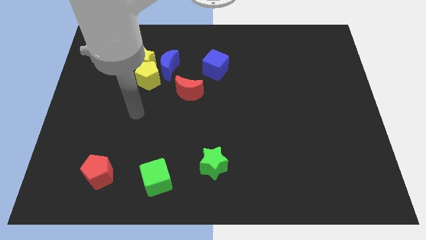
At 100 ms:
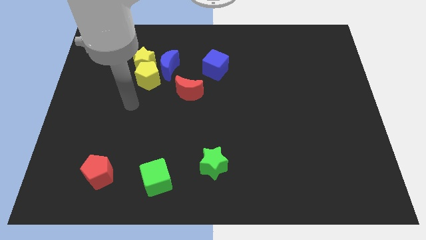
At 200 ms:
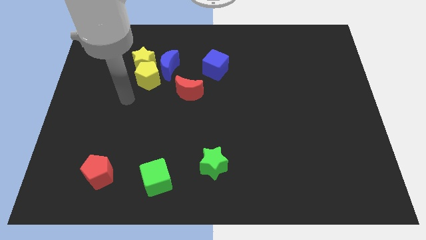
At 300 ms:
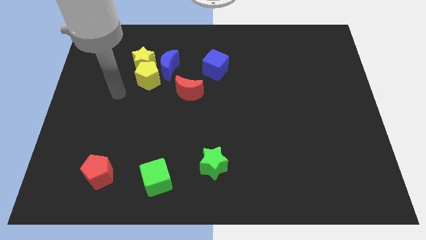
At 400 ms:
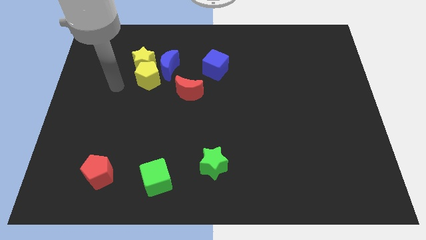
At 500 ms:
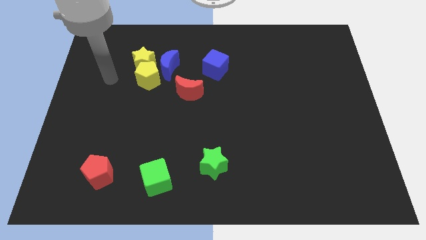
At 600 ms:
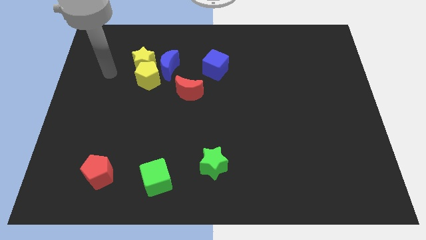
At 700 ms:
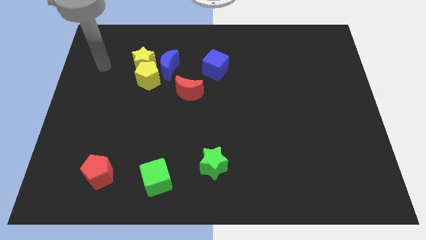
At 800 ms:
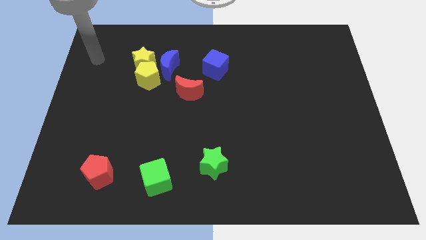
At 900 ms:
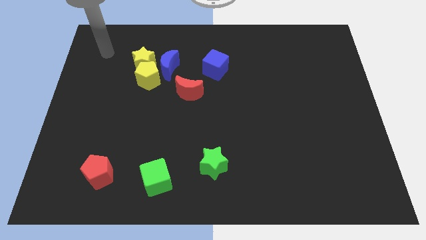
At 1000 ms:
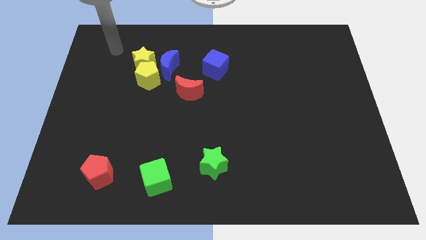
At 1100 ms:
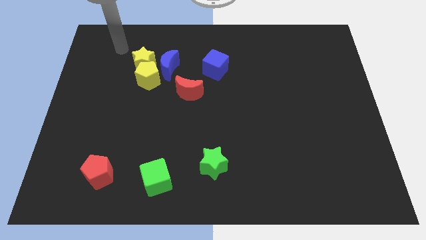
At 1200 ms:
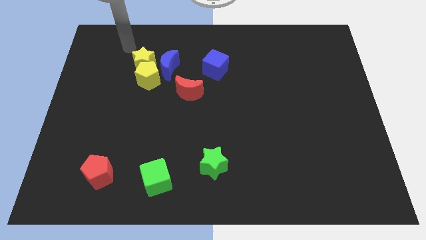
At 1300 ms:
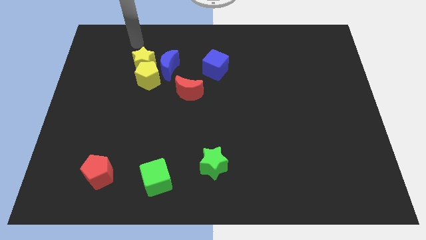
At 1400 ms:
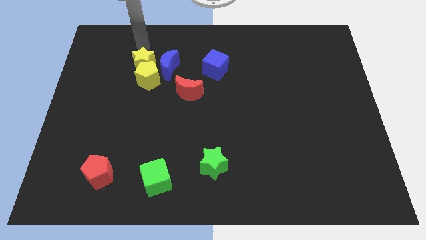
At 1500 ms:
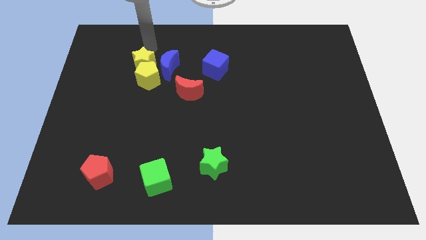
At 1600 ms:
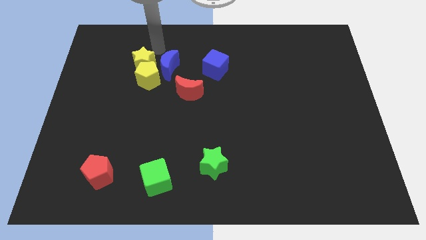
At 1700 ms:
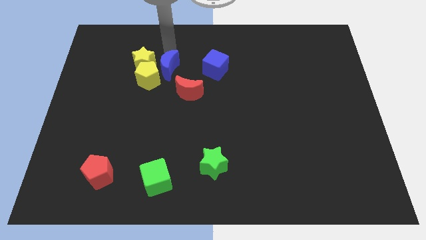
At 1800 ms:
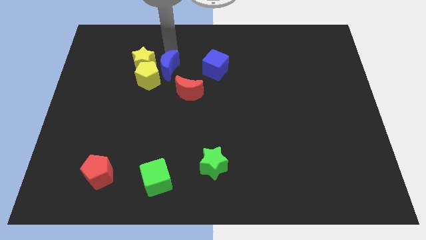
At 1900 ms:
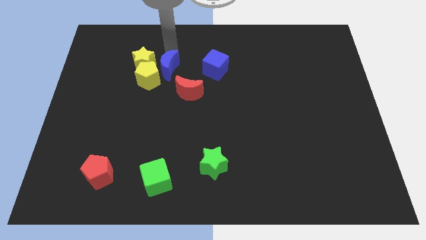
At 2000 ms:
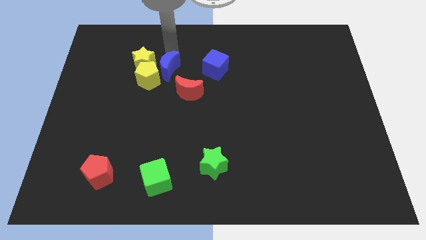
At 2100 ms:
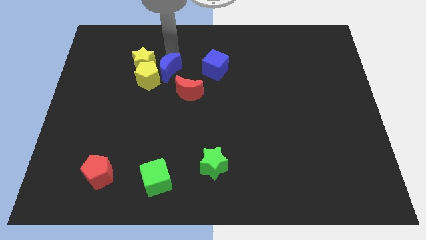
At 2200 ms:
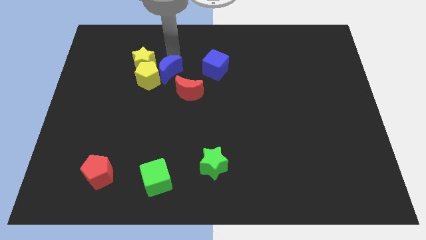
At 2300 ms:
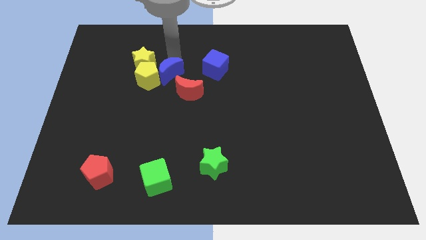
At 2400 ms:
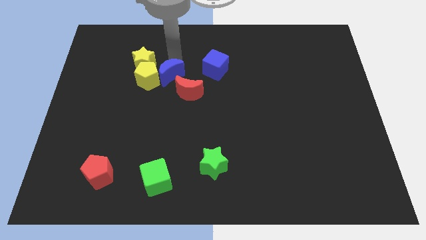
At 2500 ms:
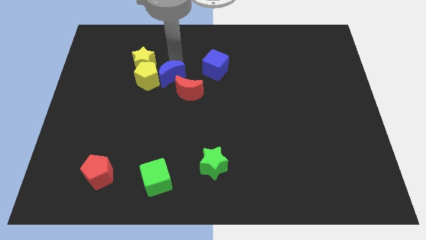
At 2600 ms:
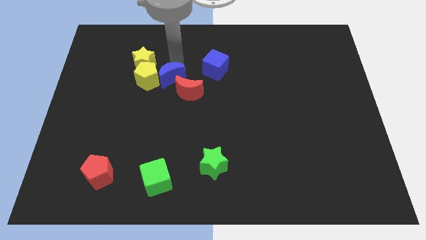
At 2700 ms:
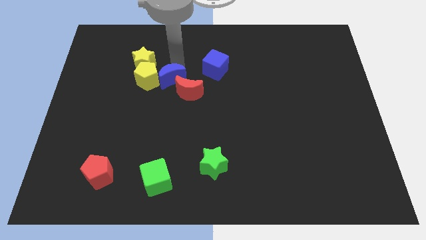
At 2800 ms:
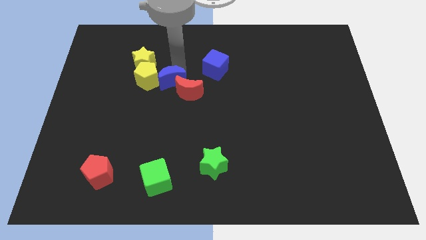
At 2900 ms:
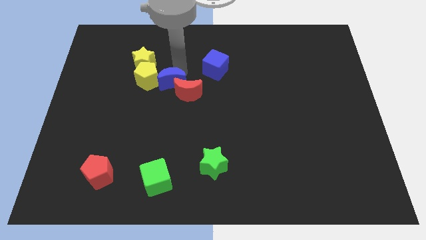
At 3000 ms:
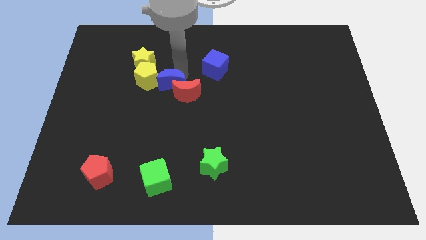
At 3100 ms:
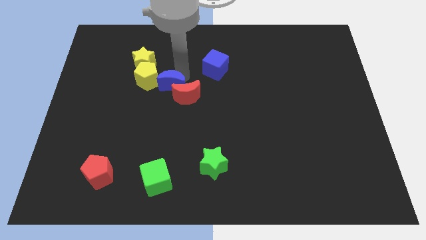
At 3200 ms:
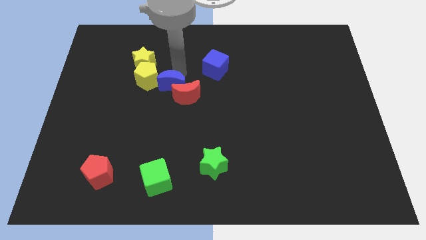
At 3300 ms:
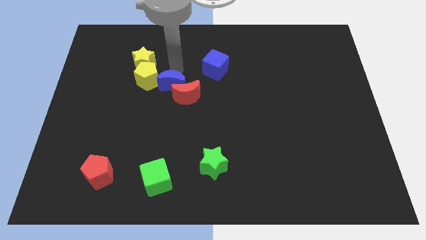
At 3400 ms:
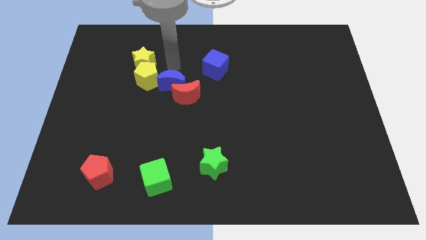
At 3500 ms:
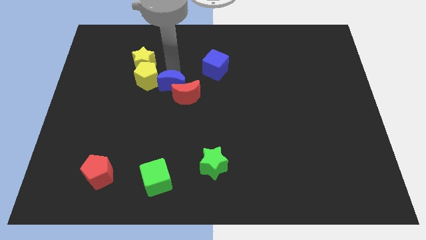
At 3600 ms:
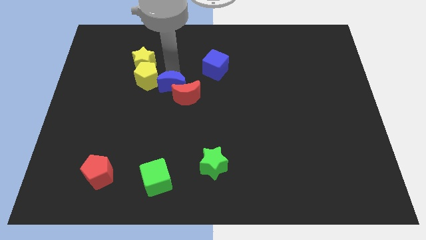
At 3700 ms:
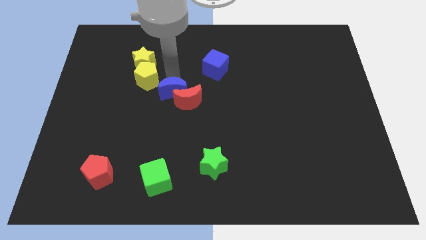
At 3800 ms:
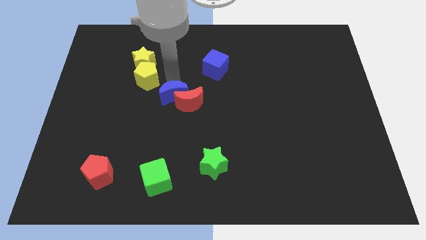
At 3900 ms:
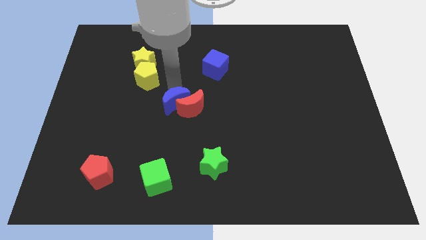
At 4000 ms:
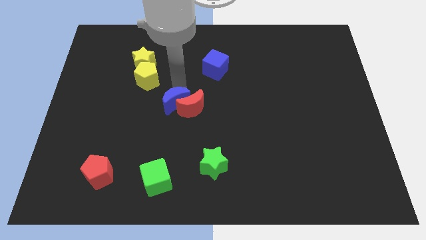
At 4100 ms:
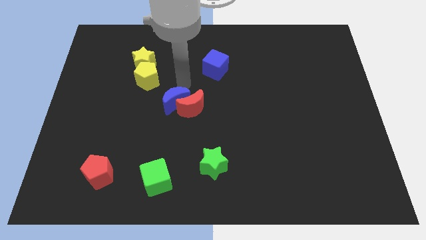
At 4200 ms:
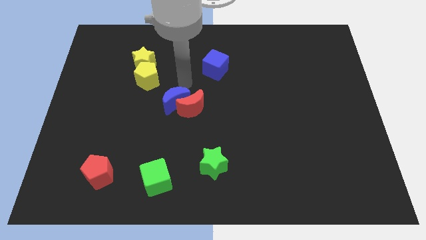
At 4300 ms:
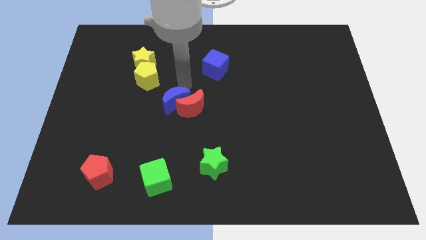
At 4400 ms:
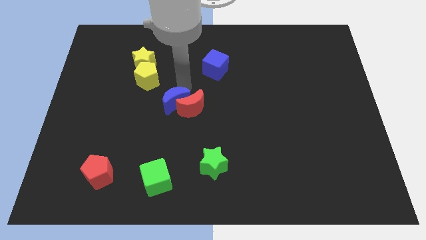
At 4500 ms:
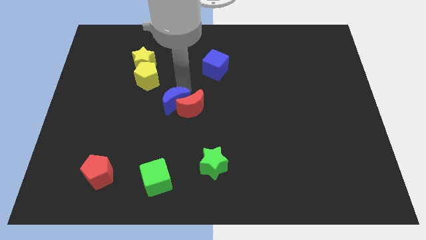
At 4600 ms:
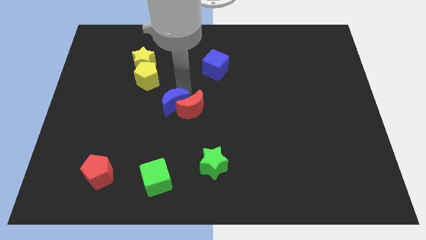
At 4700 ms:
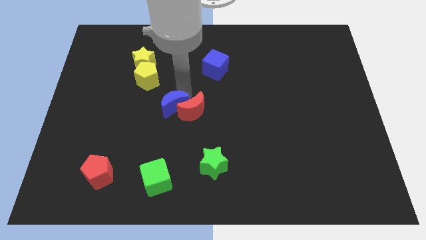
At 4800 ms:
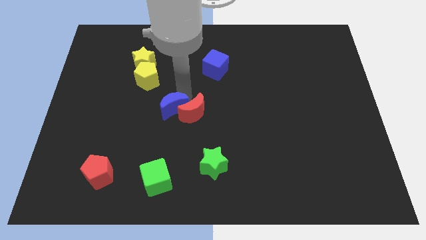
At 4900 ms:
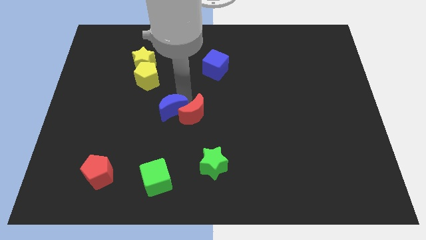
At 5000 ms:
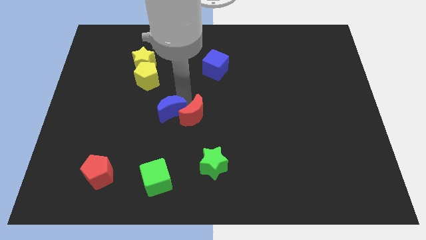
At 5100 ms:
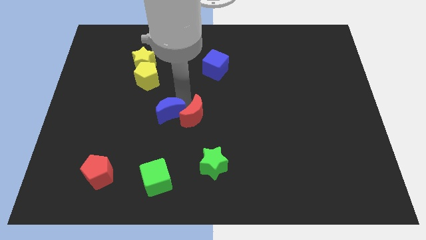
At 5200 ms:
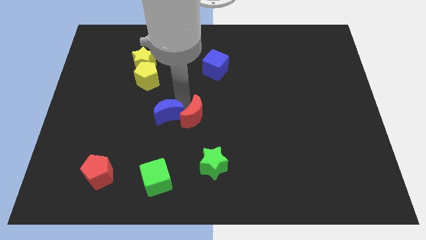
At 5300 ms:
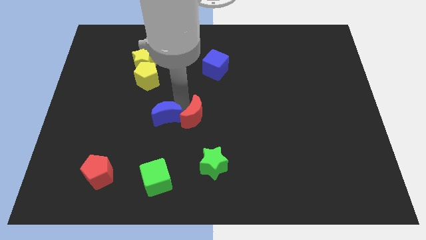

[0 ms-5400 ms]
move the blue moon to the top of the green cube

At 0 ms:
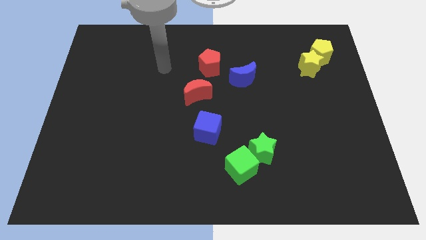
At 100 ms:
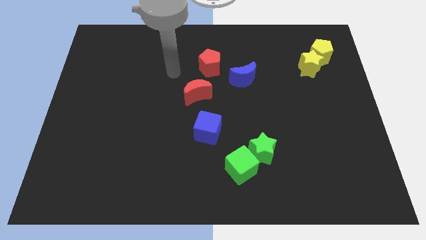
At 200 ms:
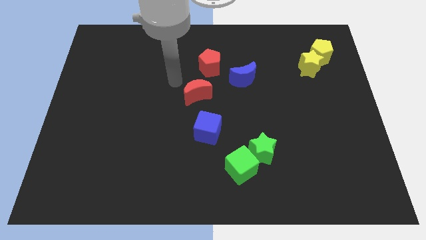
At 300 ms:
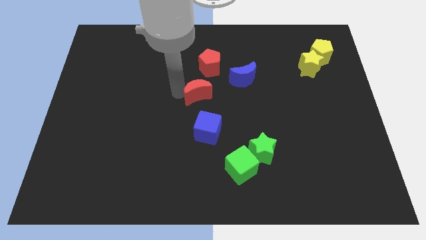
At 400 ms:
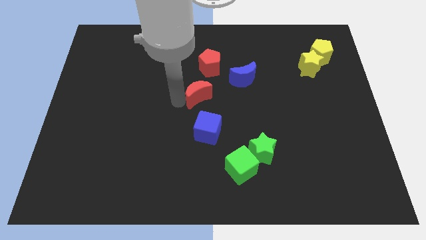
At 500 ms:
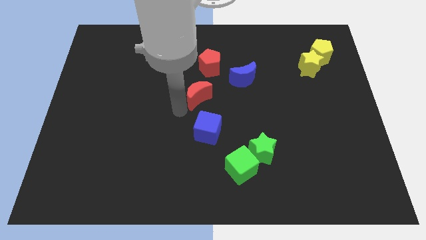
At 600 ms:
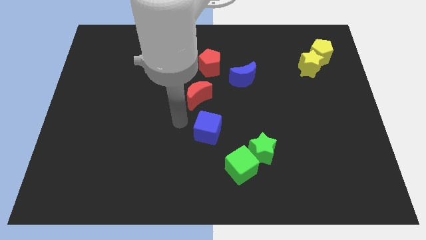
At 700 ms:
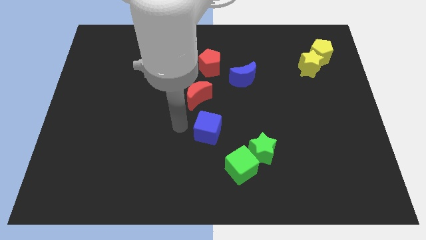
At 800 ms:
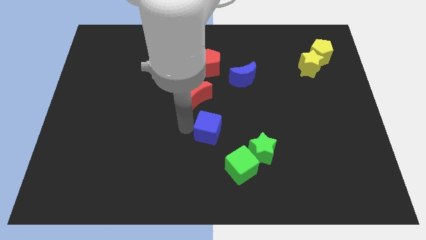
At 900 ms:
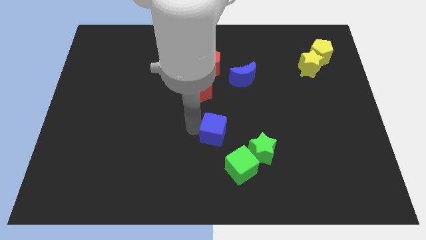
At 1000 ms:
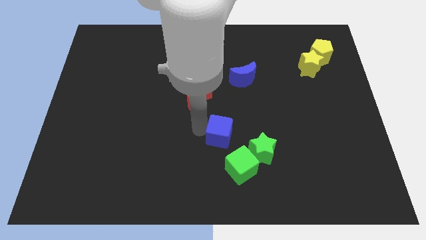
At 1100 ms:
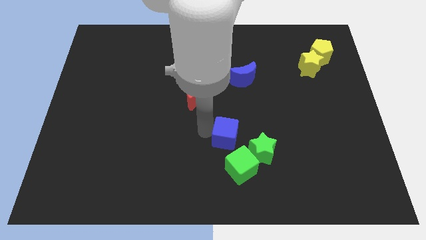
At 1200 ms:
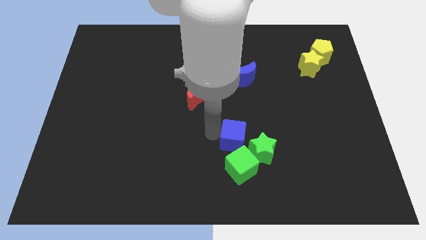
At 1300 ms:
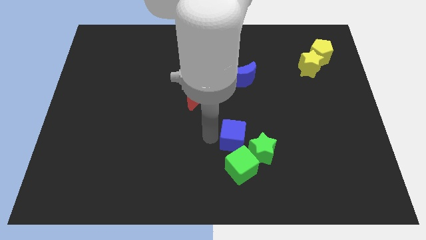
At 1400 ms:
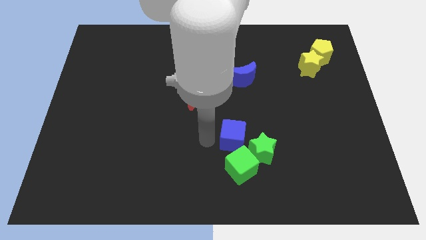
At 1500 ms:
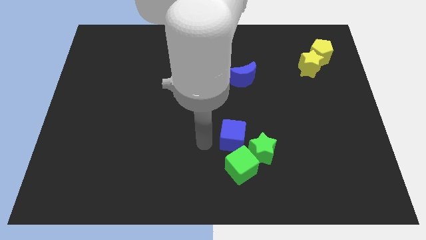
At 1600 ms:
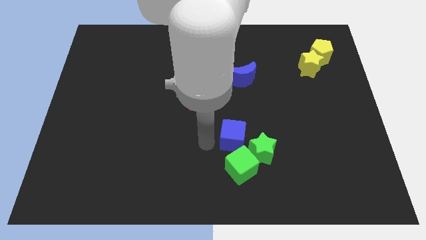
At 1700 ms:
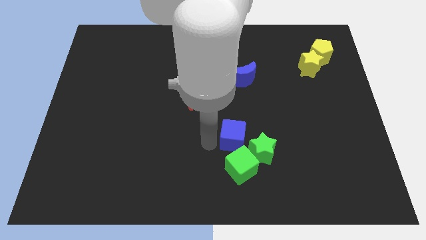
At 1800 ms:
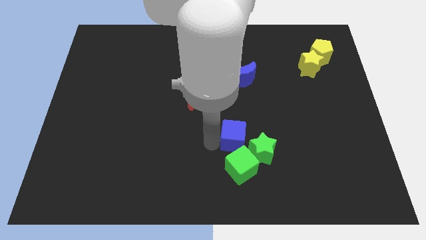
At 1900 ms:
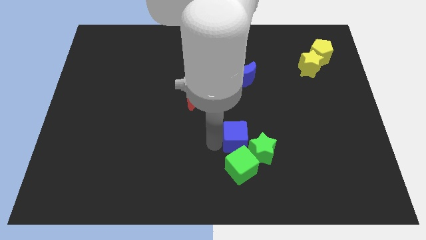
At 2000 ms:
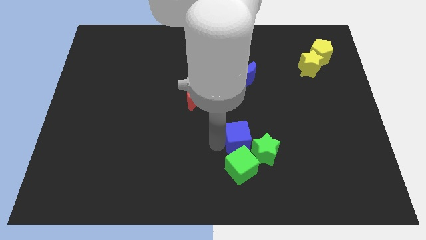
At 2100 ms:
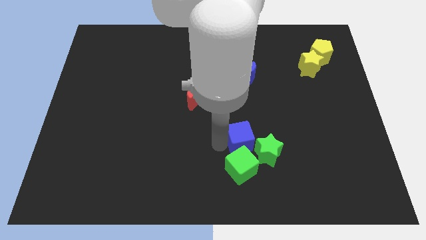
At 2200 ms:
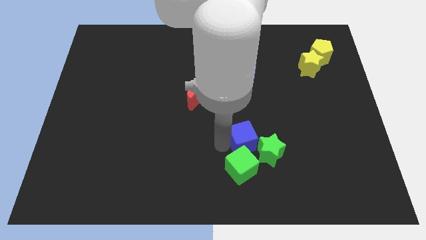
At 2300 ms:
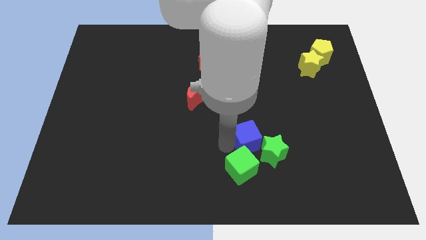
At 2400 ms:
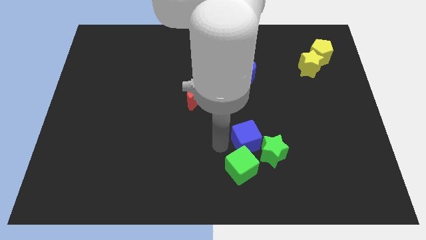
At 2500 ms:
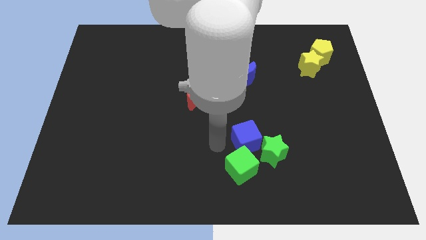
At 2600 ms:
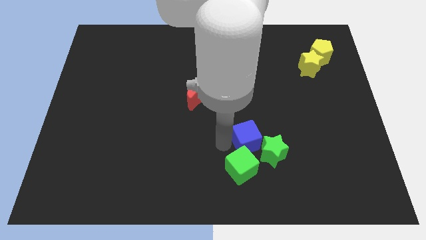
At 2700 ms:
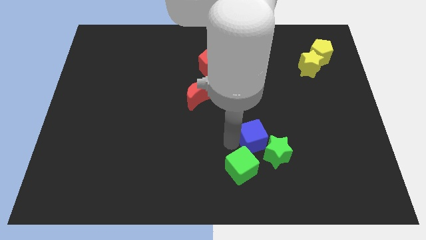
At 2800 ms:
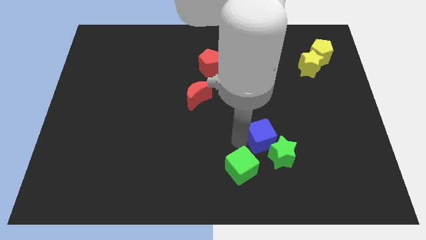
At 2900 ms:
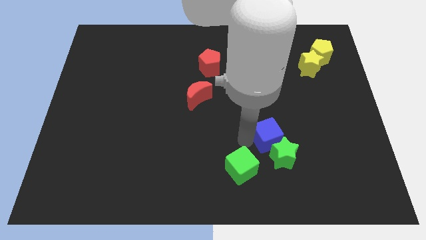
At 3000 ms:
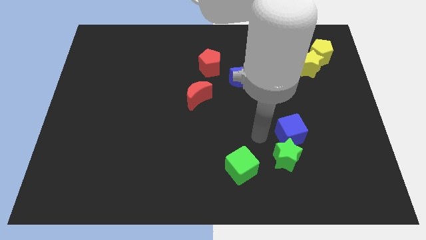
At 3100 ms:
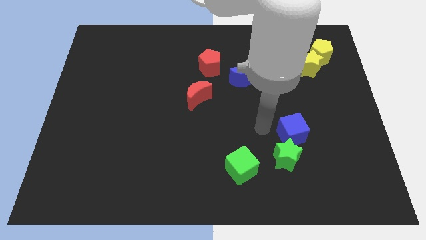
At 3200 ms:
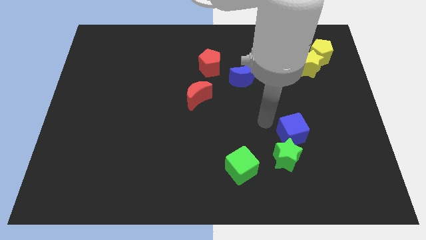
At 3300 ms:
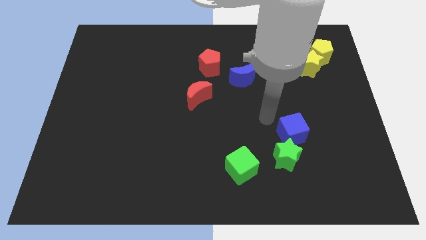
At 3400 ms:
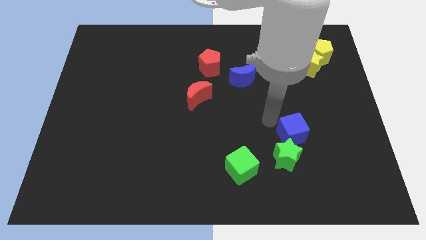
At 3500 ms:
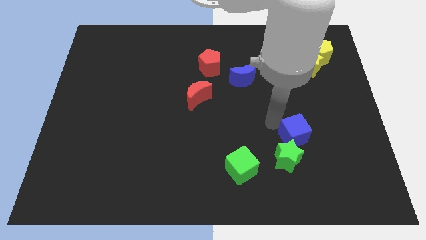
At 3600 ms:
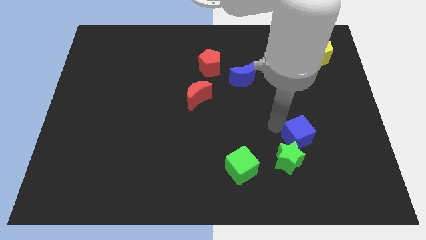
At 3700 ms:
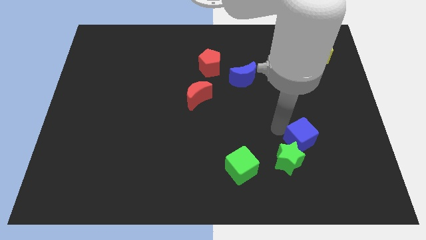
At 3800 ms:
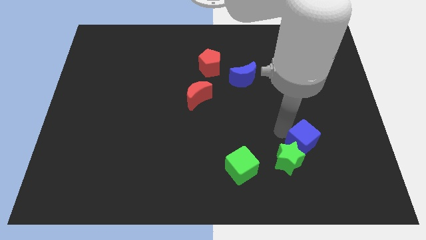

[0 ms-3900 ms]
slide the blue cube just right of the green star
